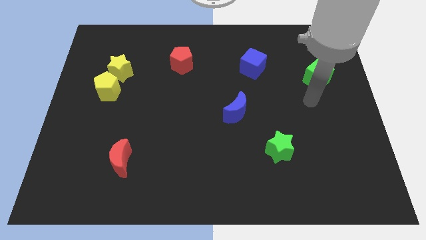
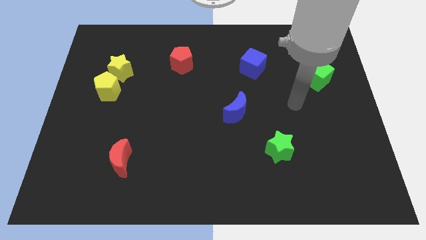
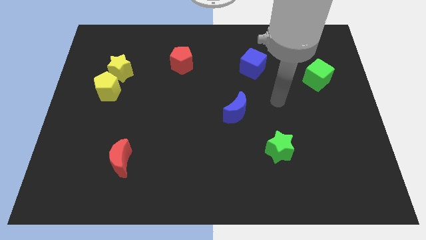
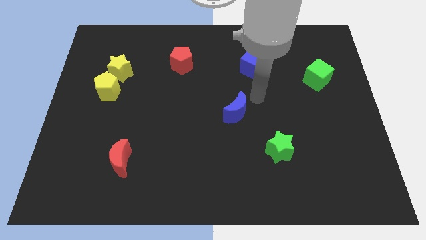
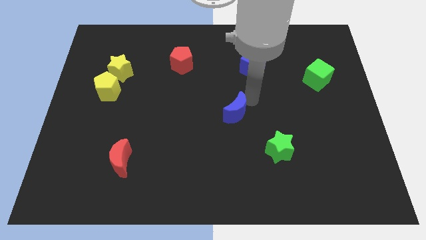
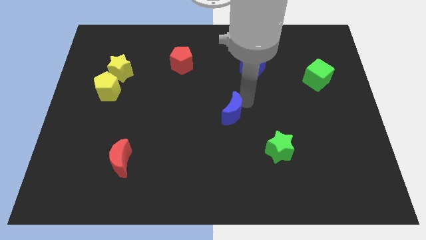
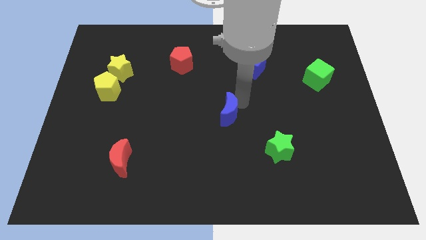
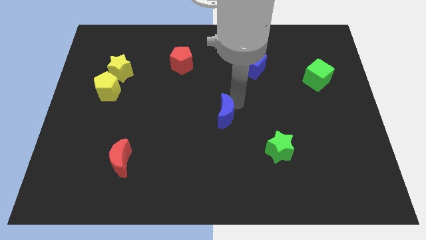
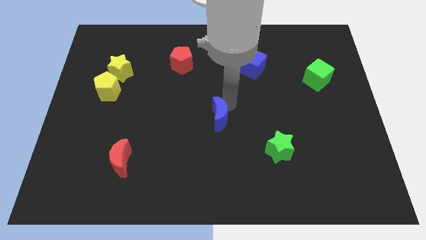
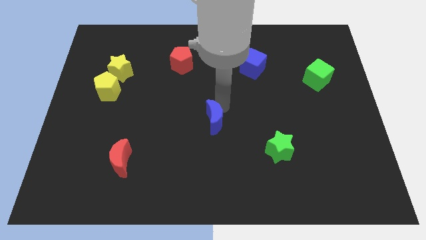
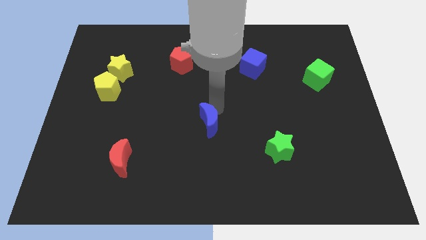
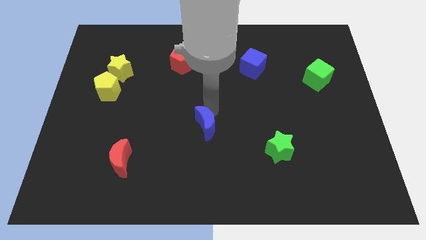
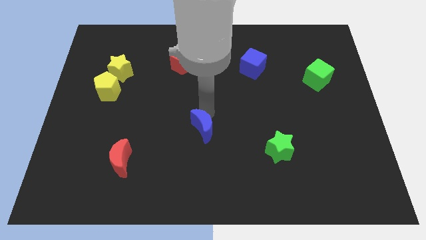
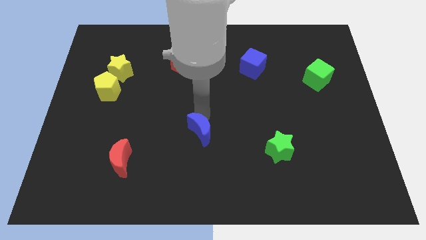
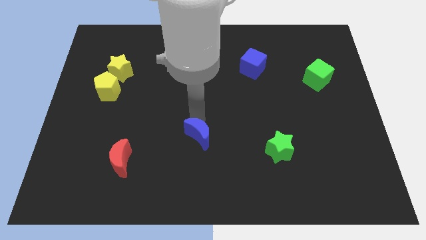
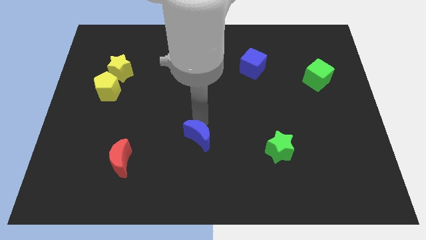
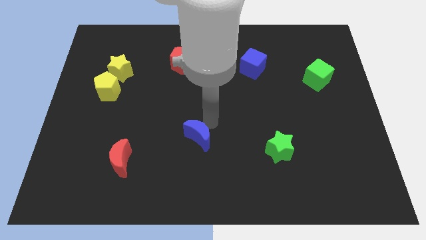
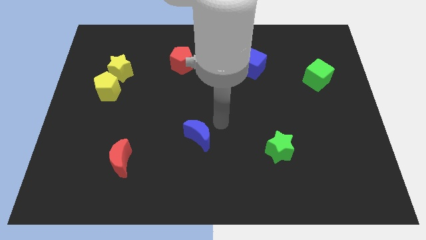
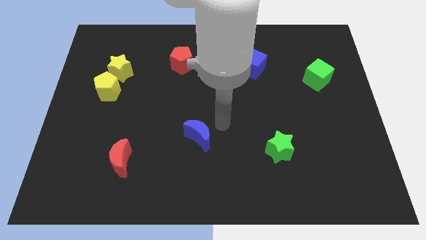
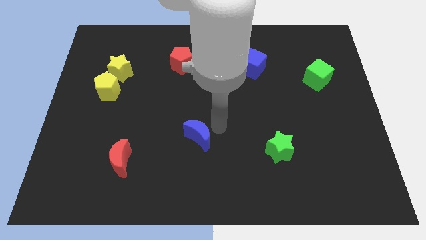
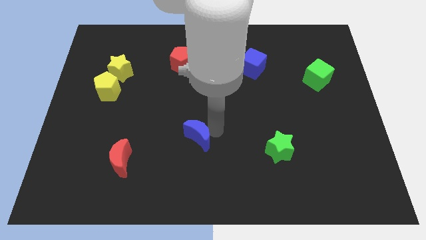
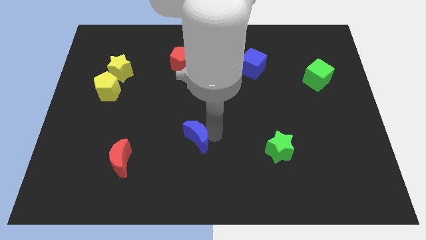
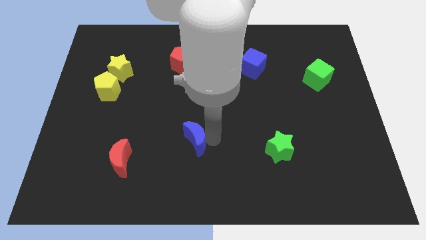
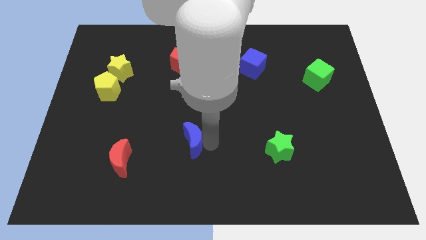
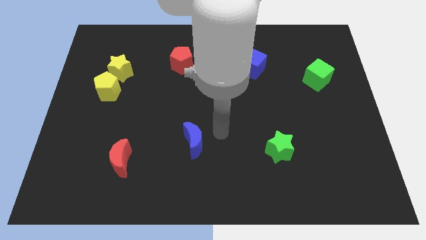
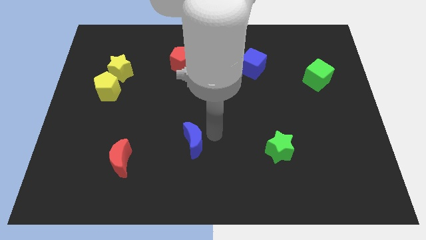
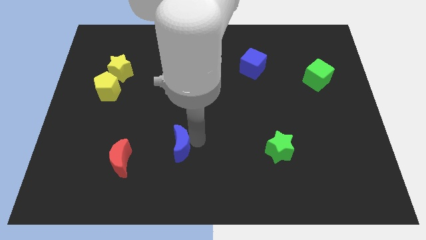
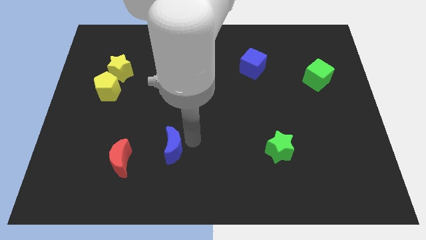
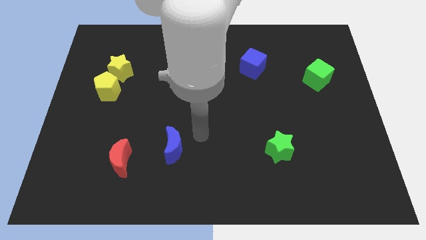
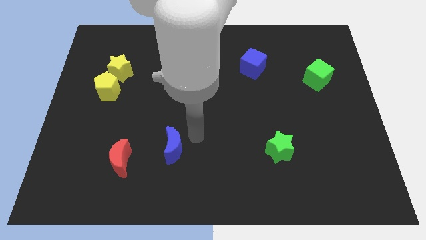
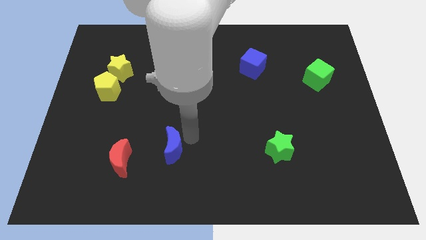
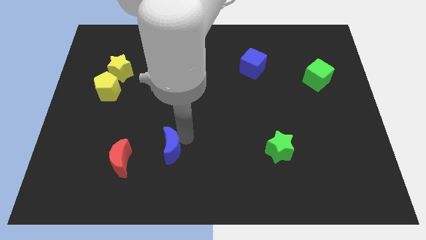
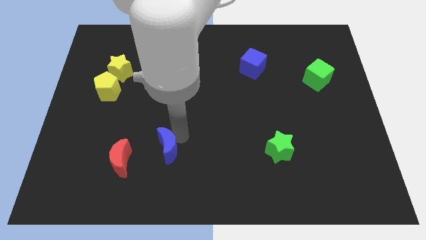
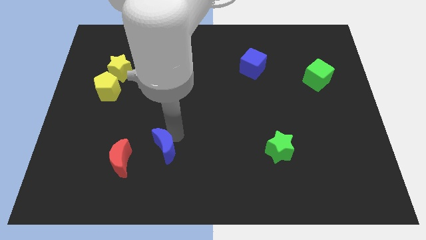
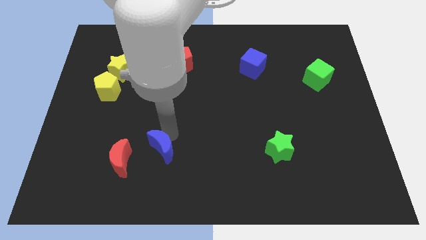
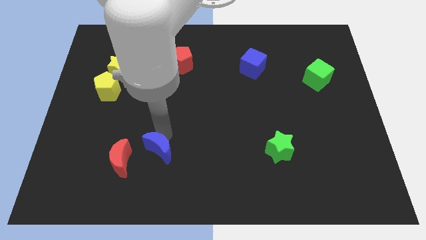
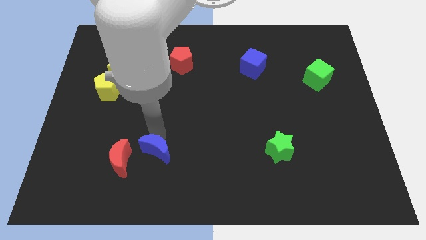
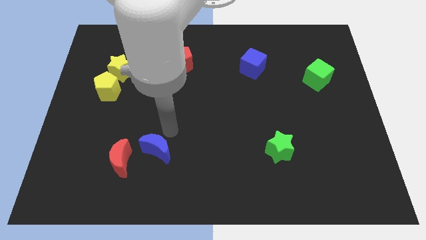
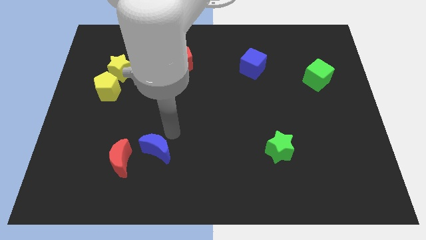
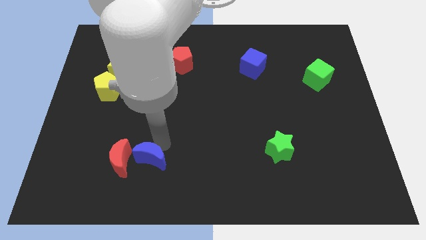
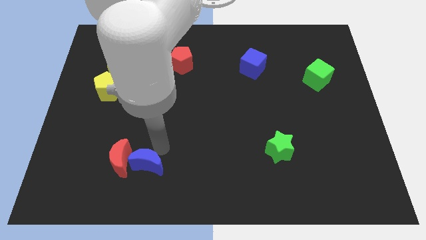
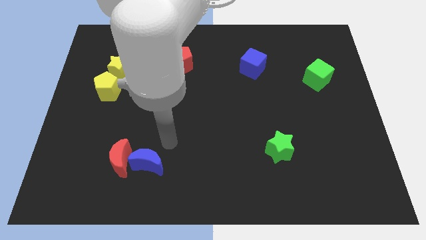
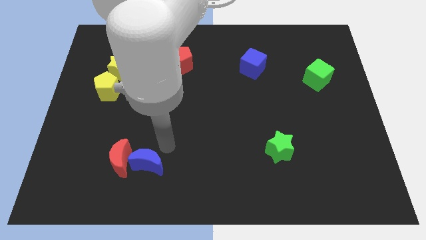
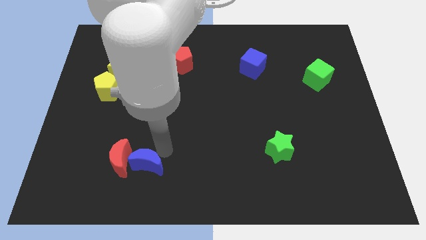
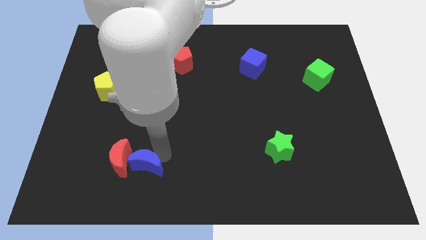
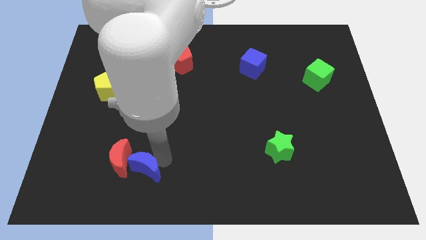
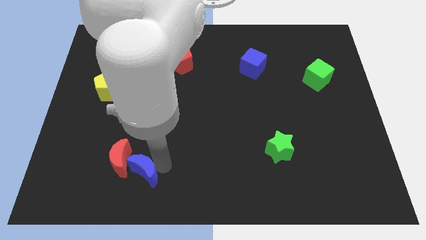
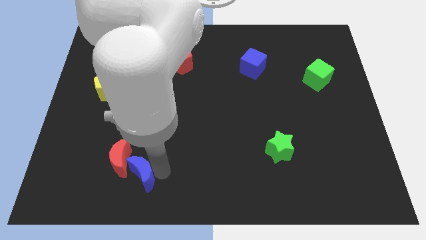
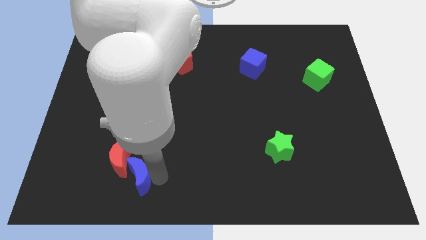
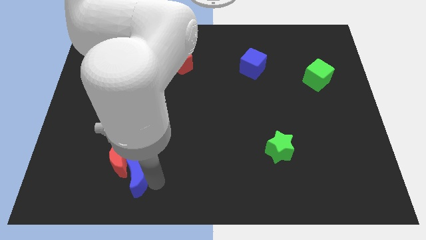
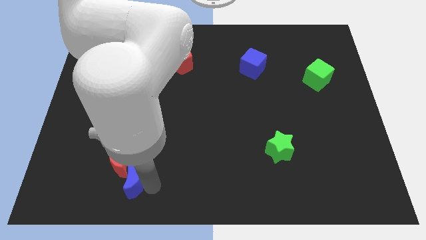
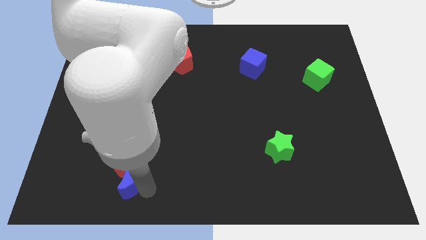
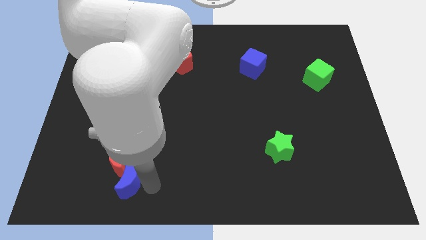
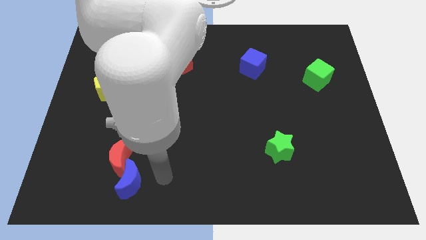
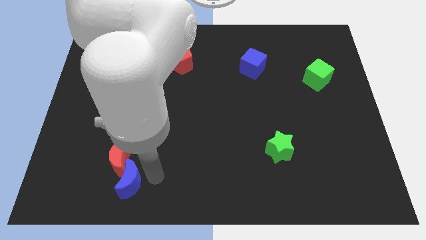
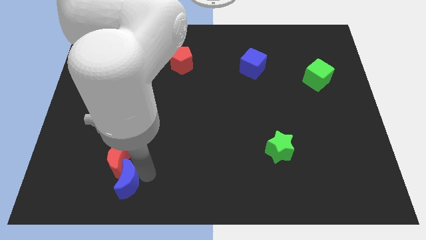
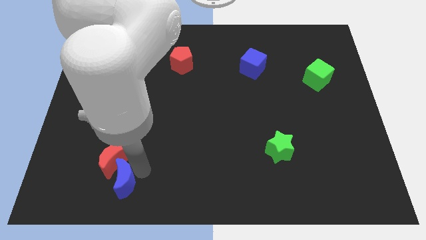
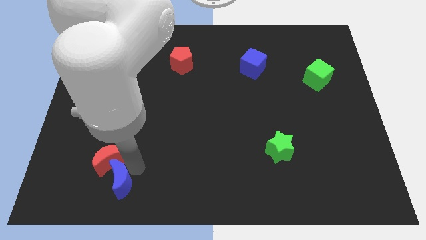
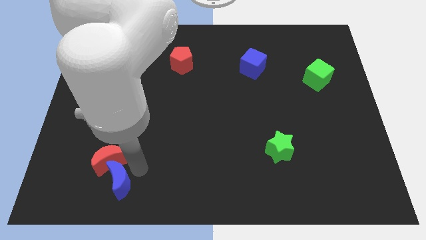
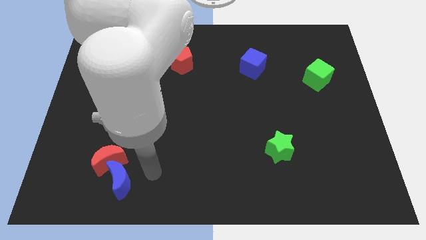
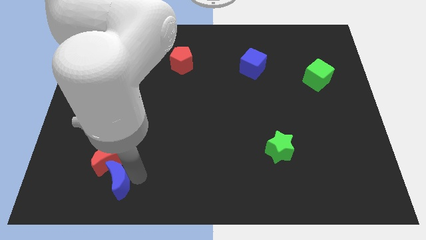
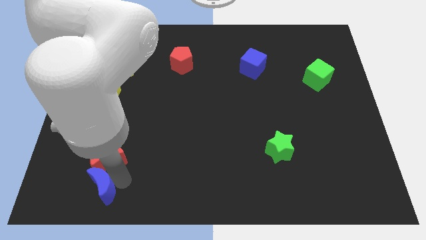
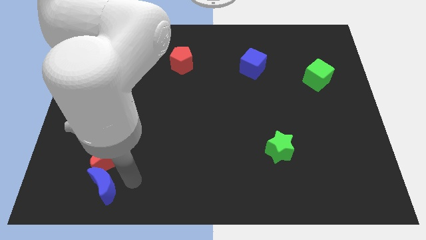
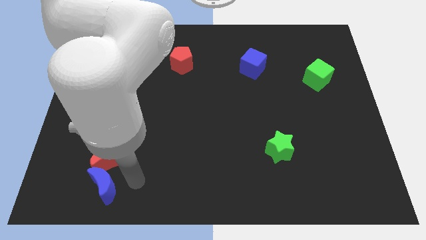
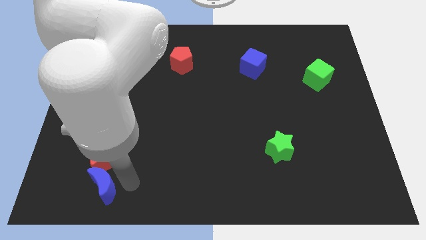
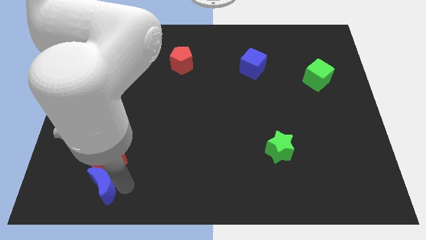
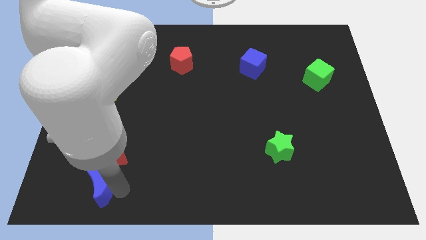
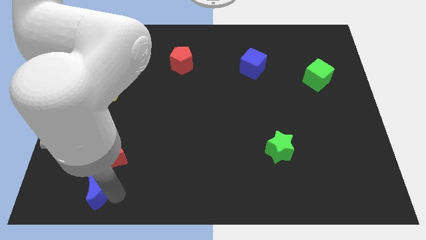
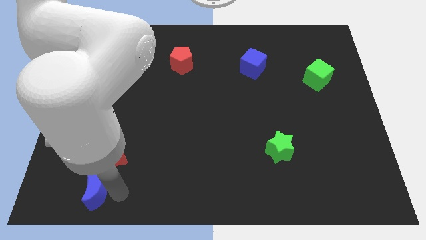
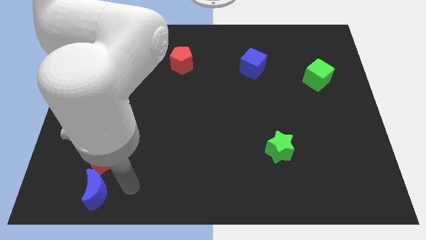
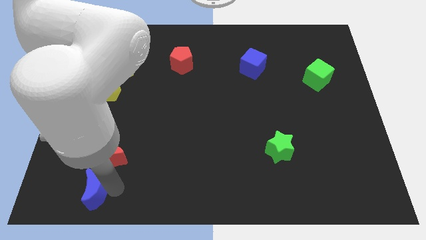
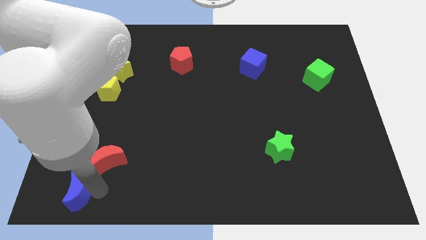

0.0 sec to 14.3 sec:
slide the blue moon to the lower left corner
